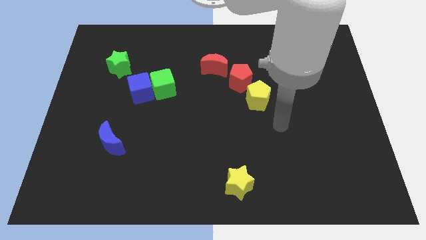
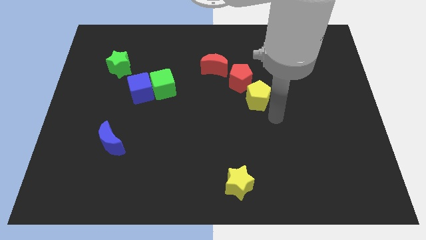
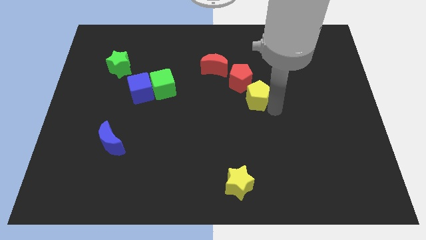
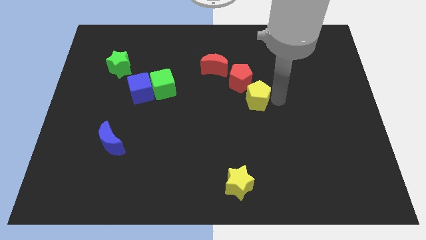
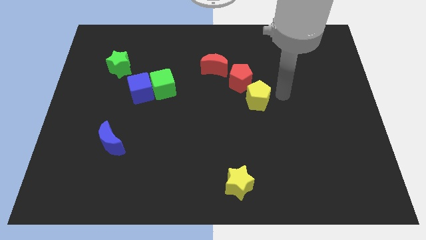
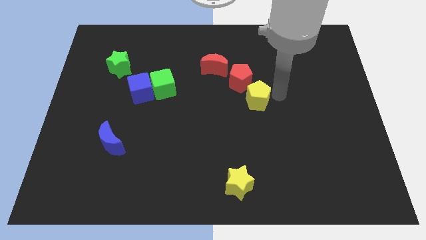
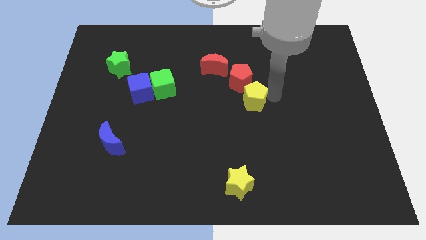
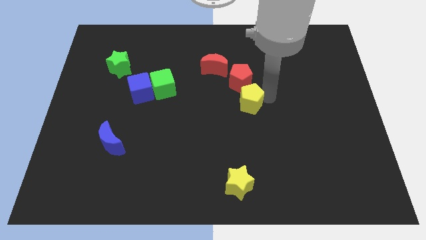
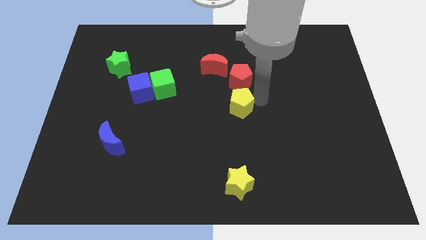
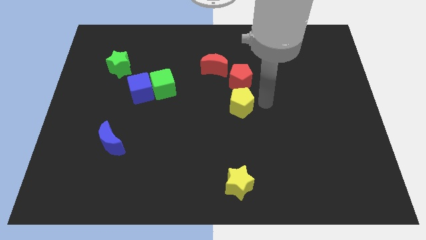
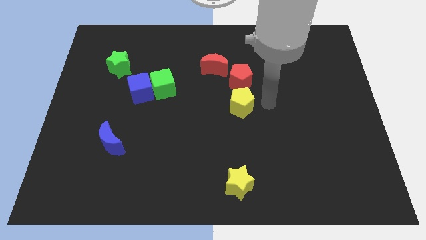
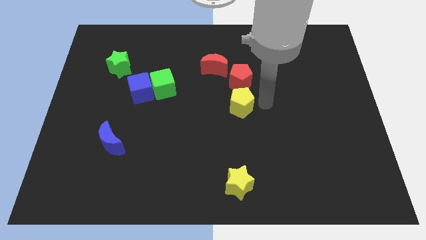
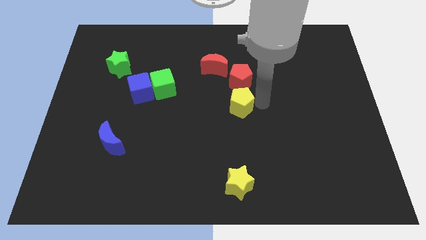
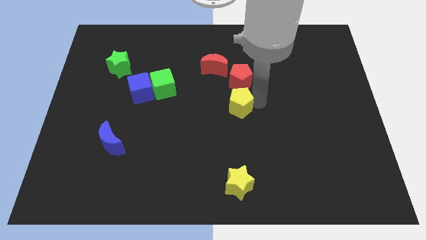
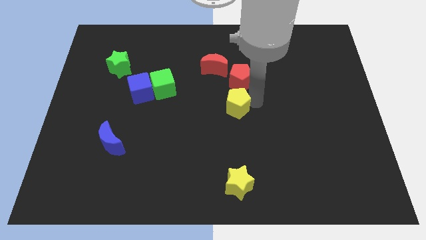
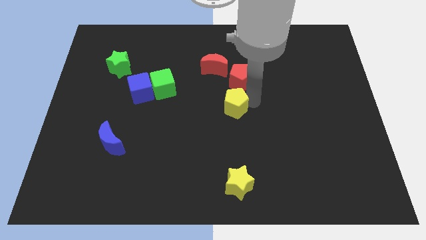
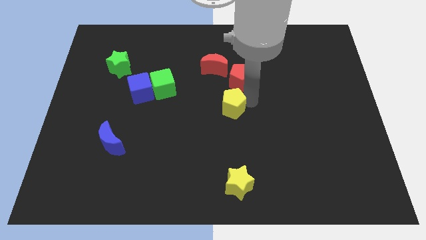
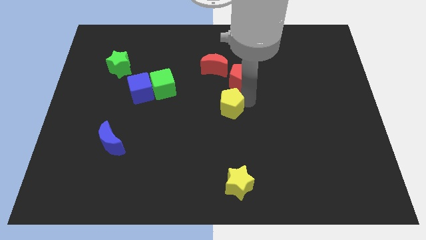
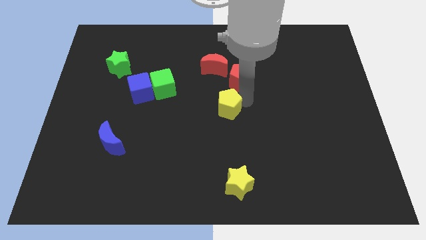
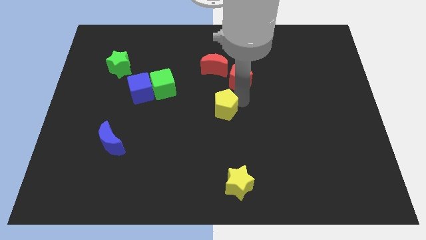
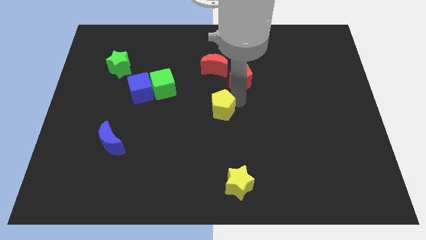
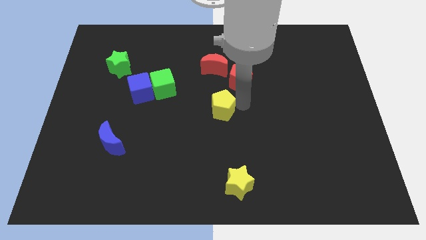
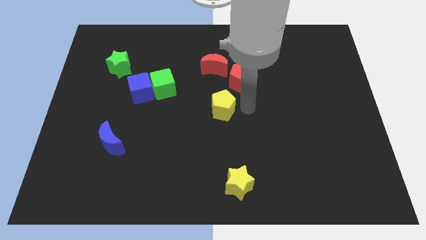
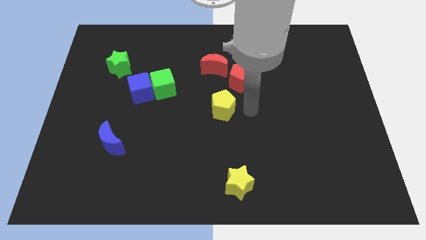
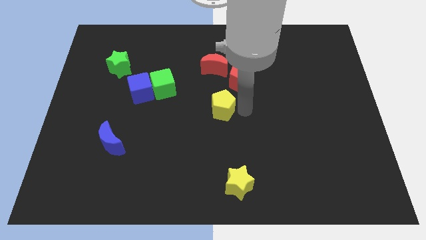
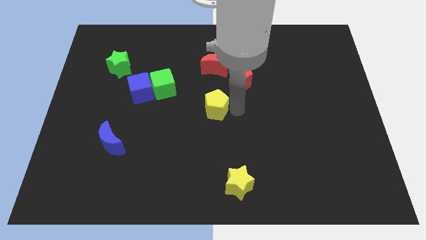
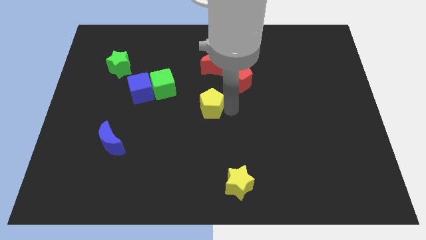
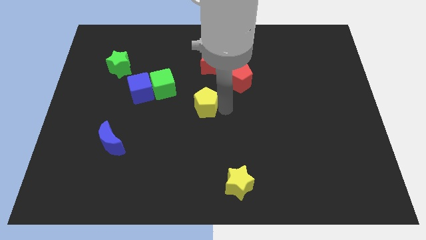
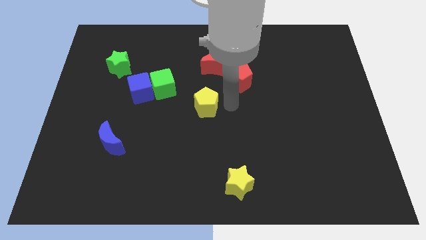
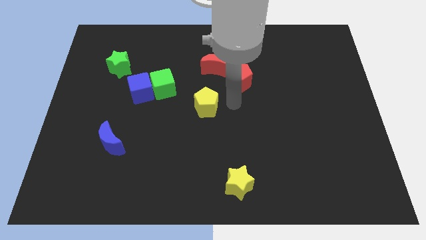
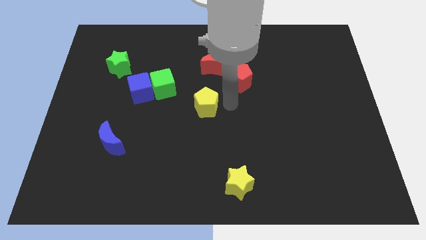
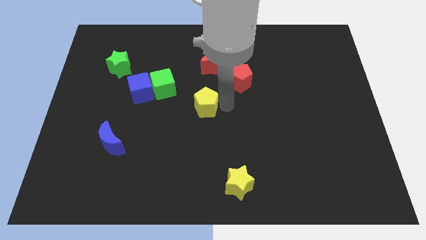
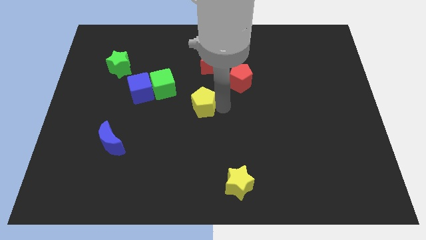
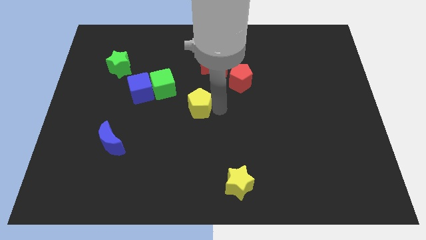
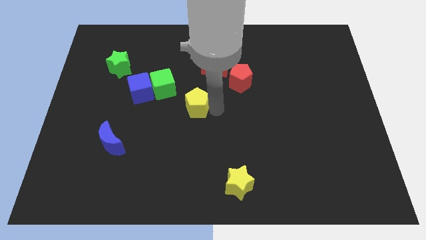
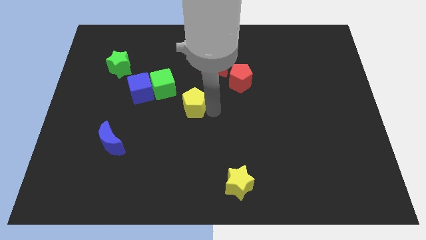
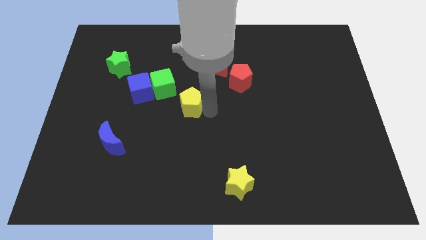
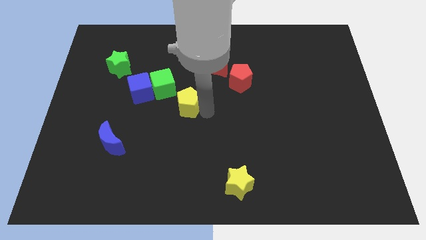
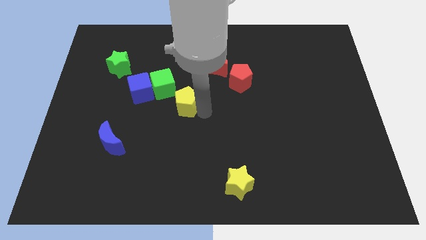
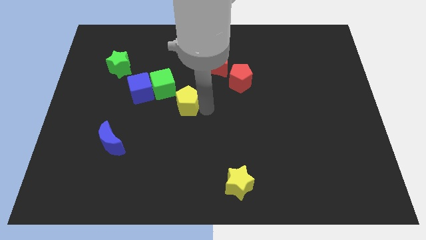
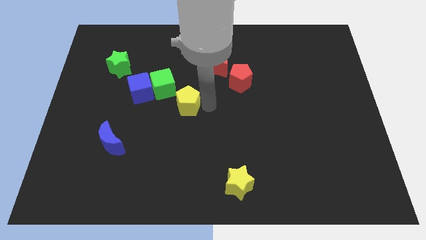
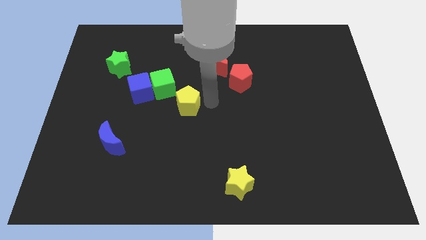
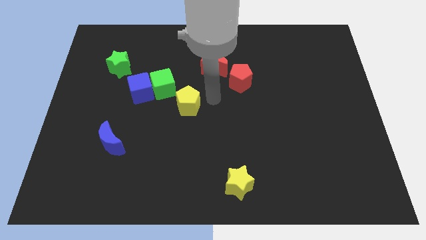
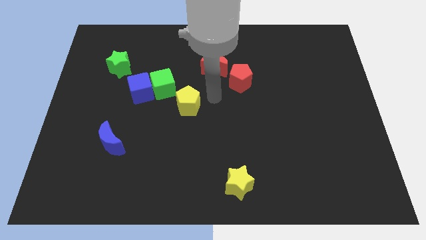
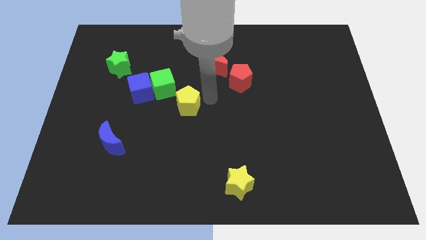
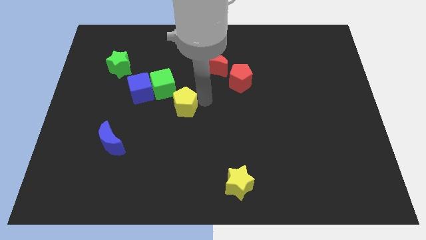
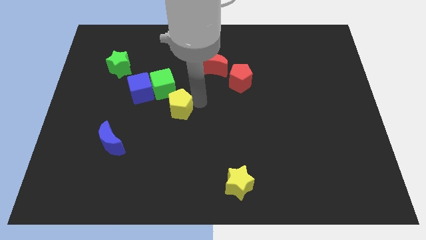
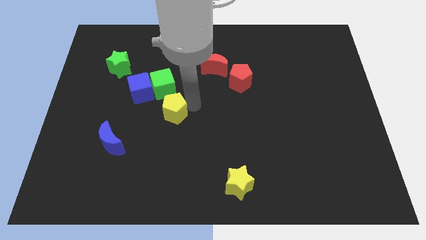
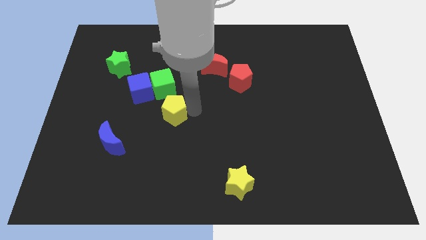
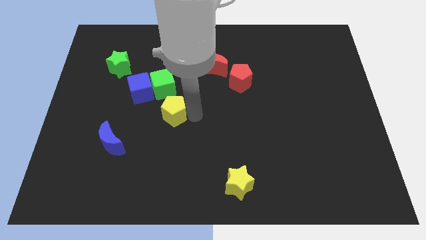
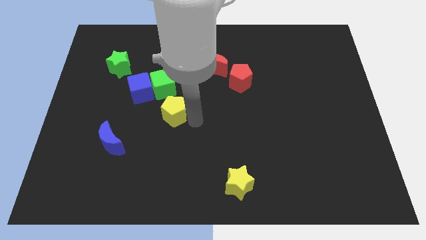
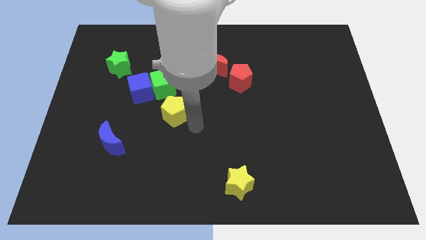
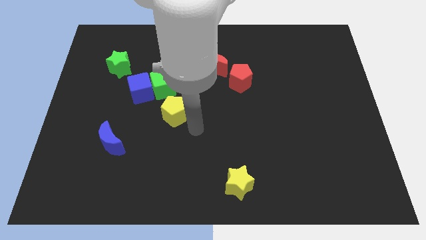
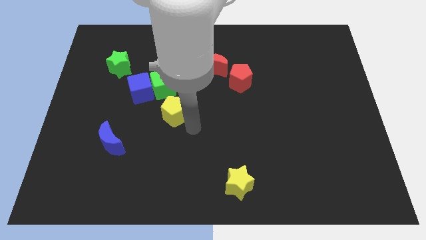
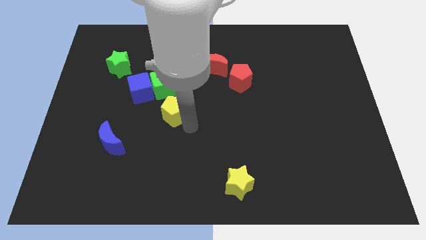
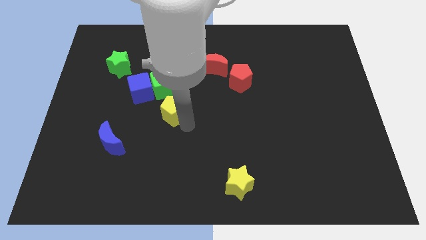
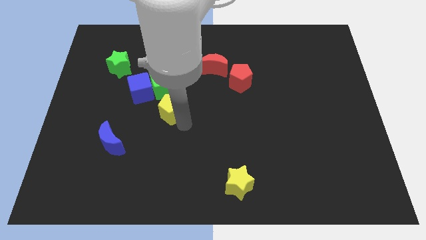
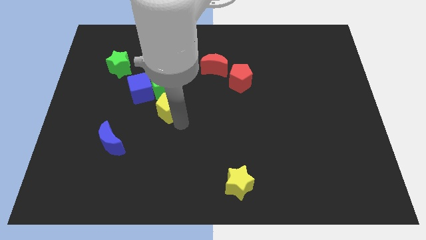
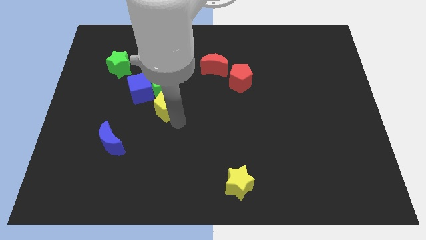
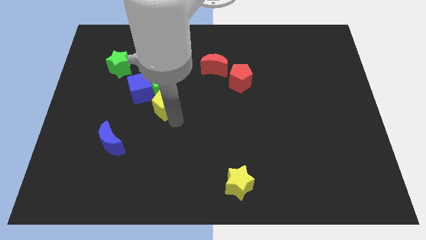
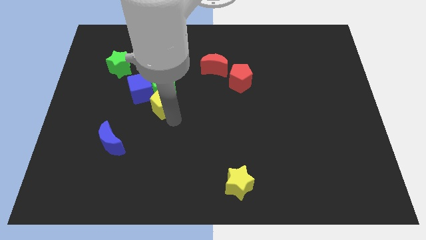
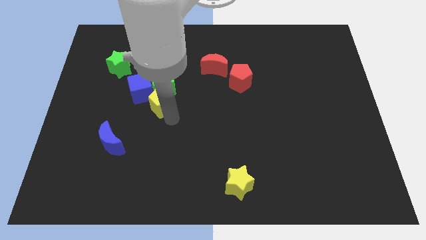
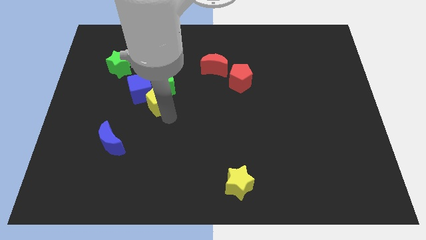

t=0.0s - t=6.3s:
put the yellow pentagon next to the blue cube
